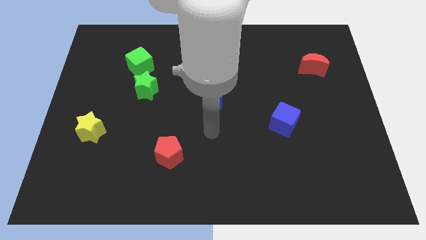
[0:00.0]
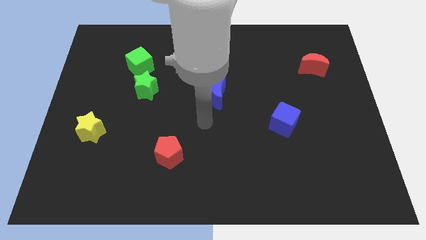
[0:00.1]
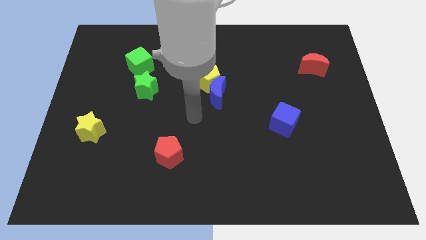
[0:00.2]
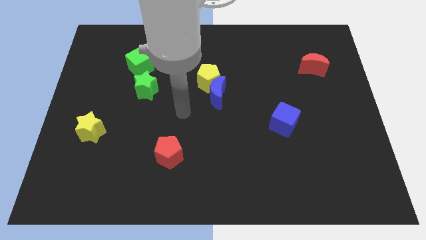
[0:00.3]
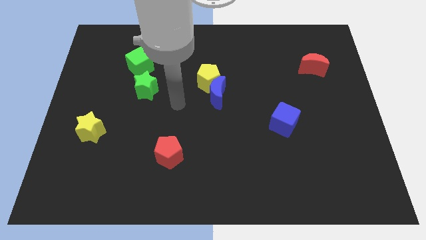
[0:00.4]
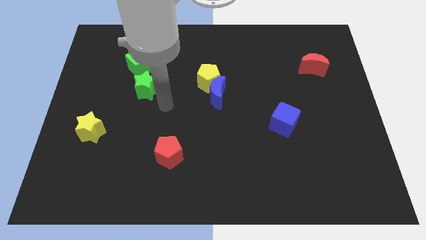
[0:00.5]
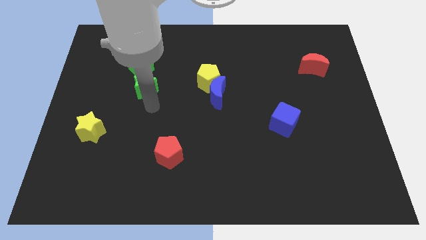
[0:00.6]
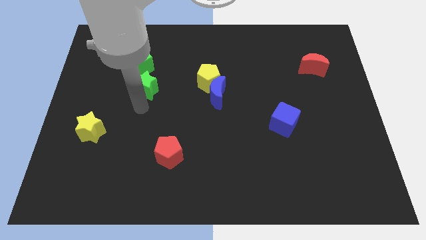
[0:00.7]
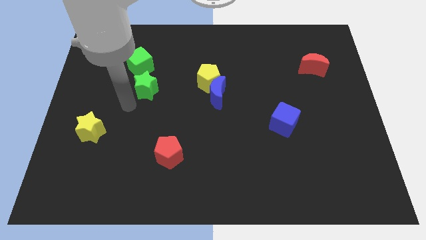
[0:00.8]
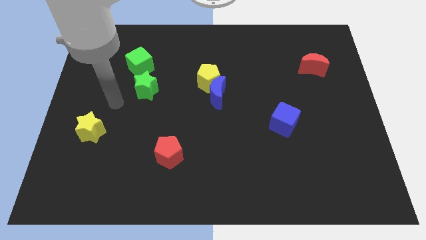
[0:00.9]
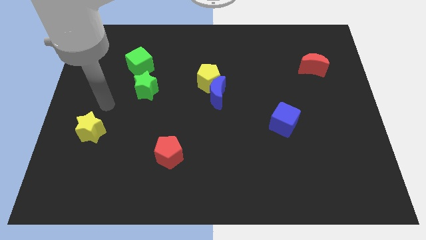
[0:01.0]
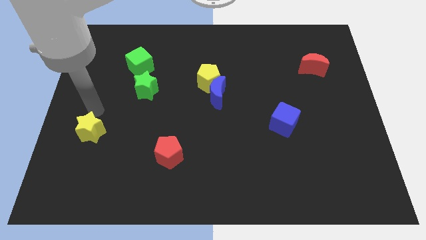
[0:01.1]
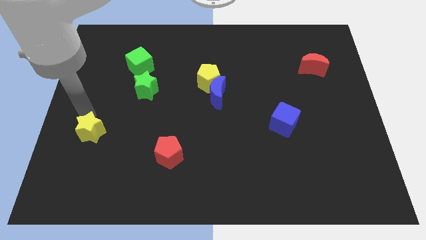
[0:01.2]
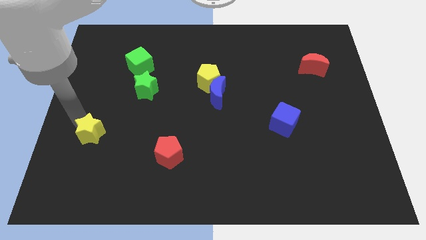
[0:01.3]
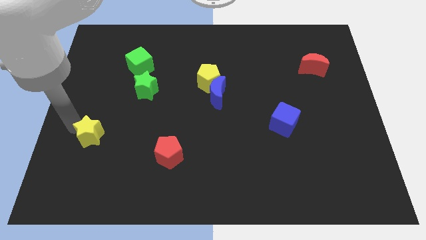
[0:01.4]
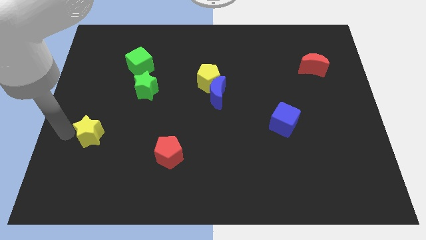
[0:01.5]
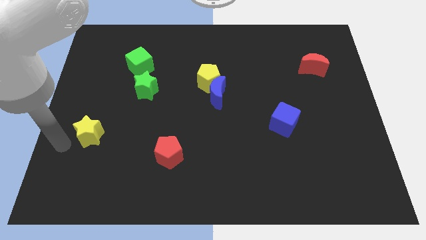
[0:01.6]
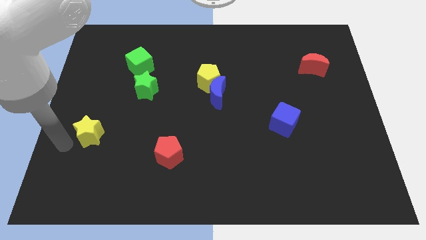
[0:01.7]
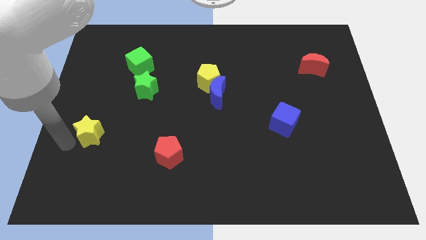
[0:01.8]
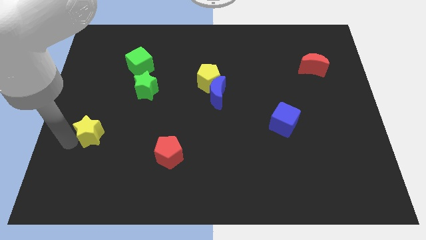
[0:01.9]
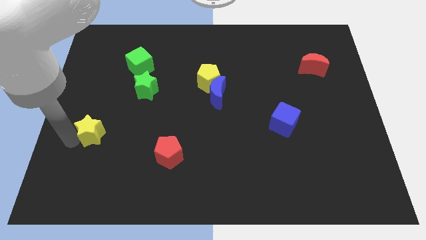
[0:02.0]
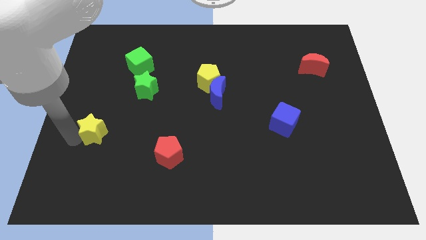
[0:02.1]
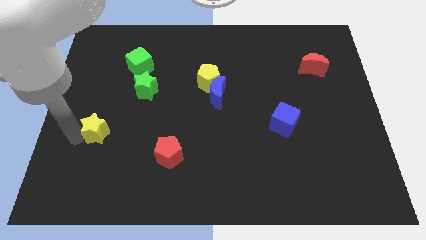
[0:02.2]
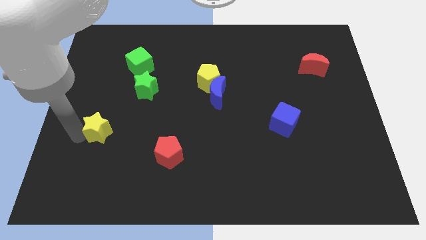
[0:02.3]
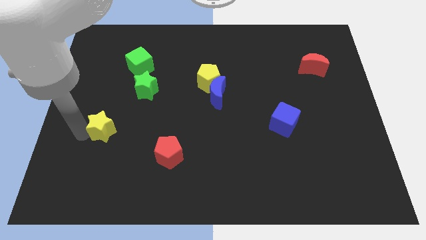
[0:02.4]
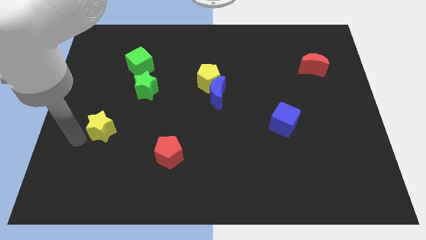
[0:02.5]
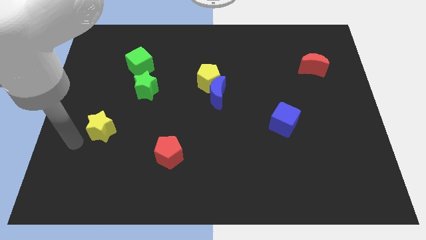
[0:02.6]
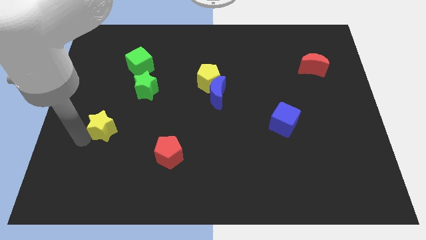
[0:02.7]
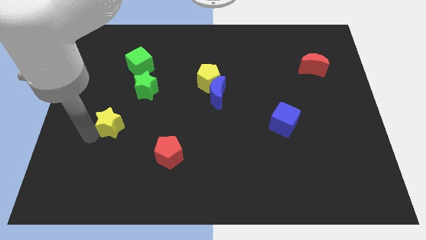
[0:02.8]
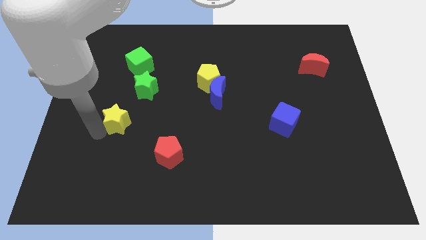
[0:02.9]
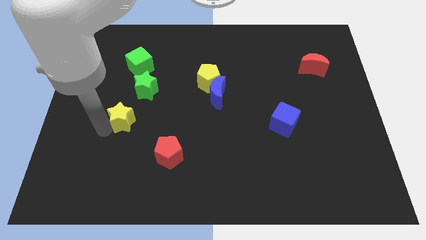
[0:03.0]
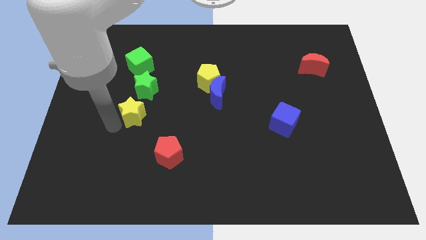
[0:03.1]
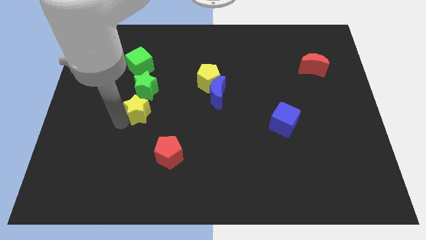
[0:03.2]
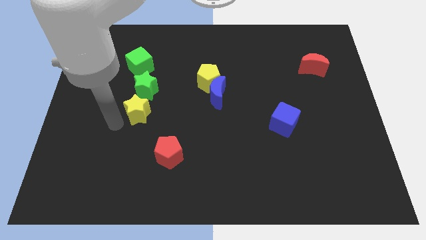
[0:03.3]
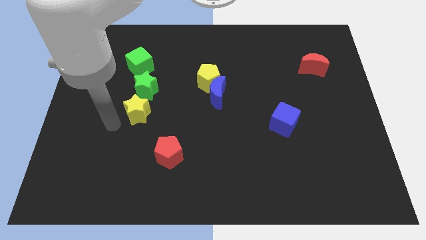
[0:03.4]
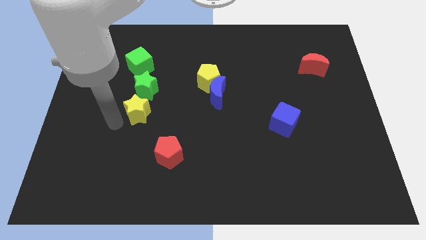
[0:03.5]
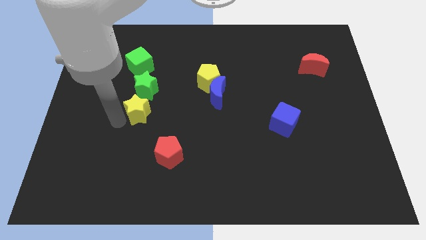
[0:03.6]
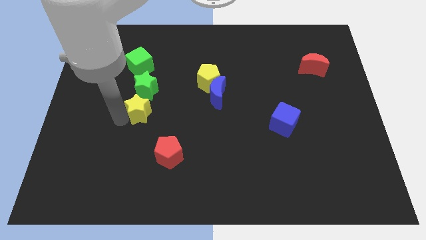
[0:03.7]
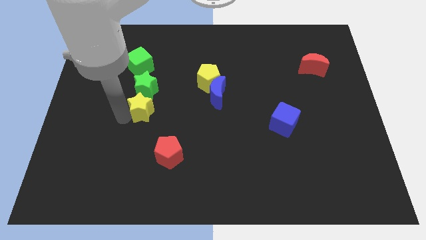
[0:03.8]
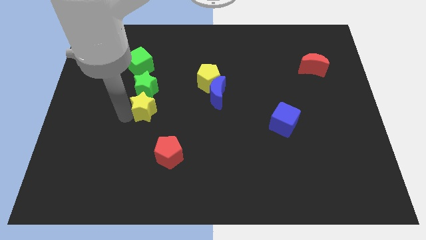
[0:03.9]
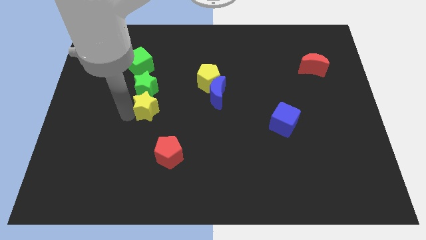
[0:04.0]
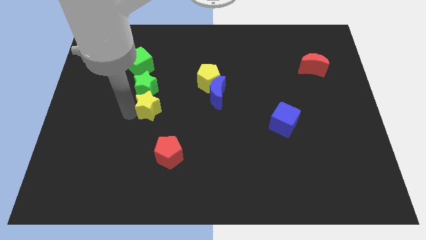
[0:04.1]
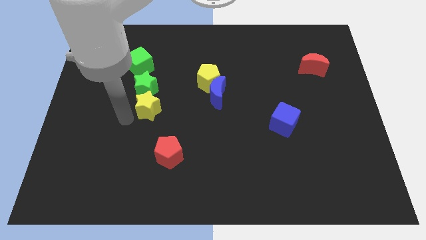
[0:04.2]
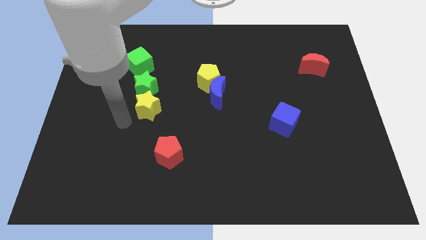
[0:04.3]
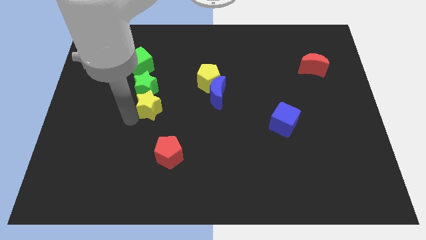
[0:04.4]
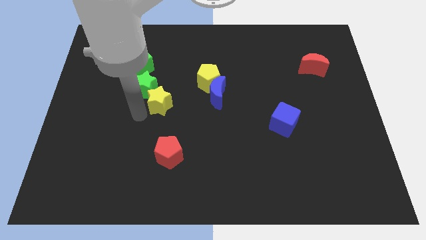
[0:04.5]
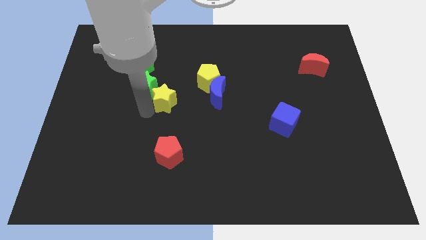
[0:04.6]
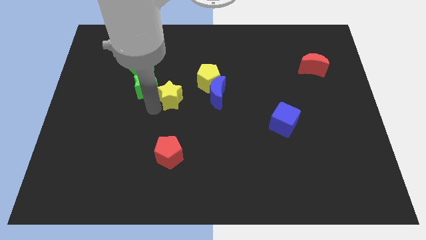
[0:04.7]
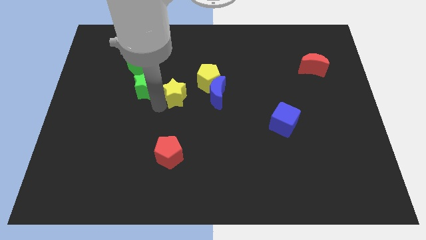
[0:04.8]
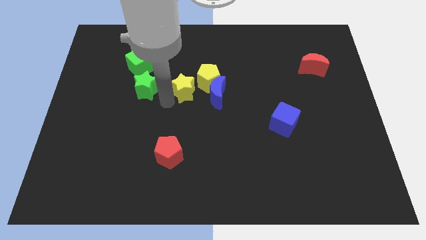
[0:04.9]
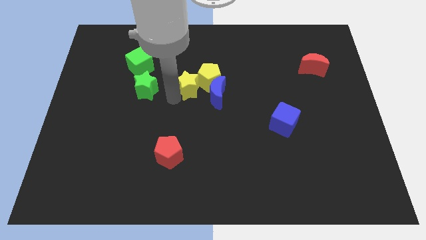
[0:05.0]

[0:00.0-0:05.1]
put the yellow star close to the yellow pentagon

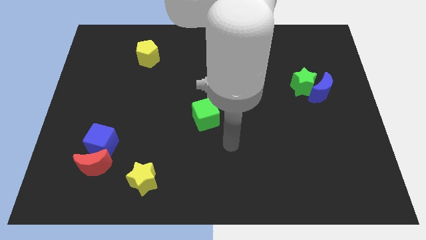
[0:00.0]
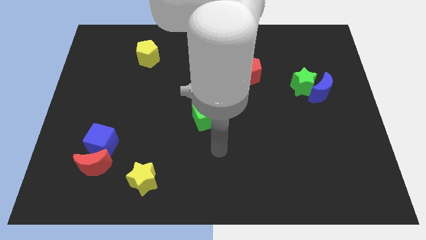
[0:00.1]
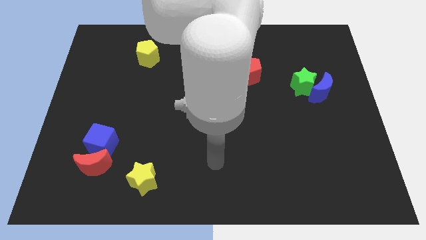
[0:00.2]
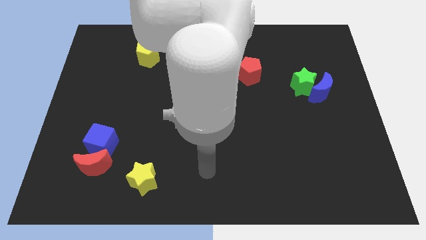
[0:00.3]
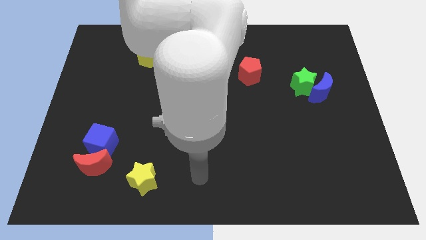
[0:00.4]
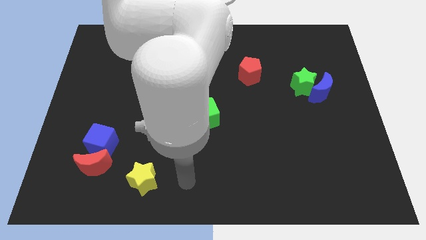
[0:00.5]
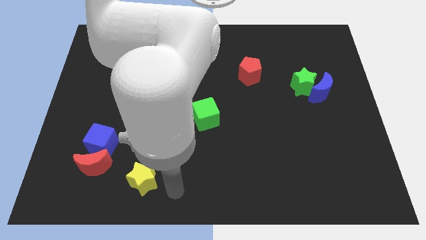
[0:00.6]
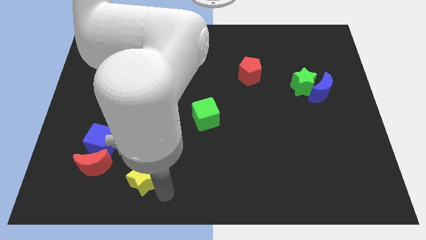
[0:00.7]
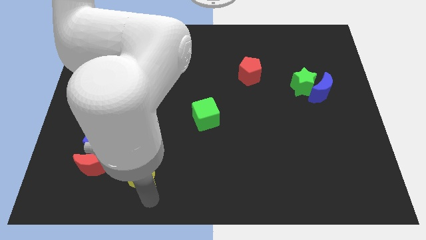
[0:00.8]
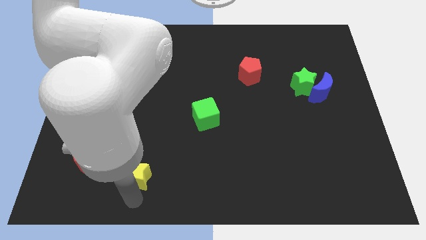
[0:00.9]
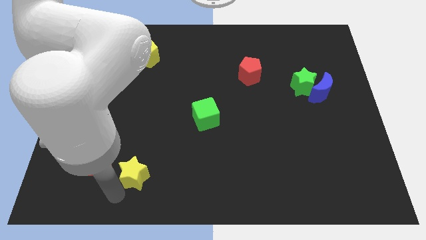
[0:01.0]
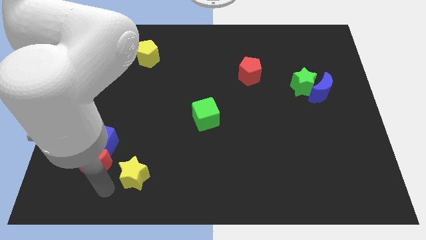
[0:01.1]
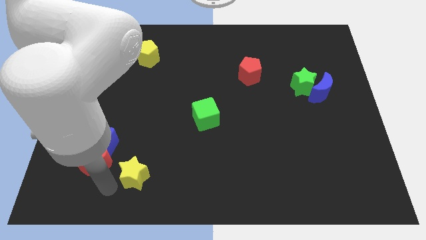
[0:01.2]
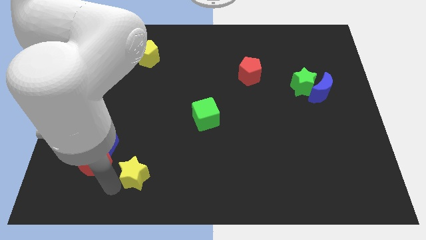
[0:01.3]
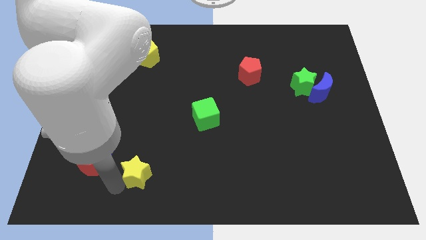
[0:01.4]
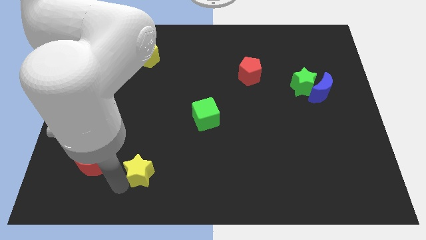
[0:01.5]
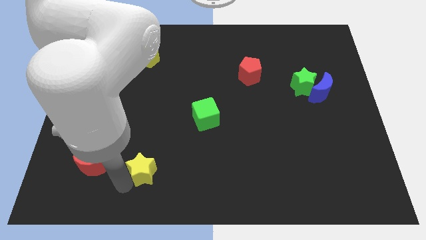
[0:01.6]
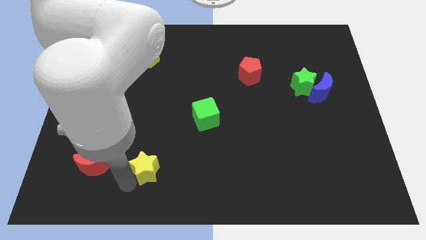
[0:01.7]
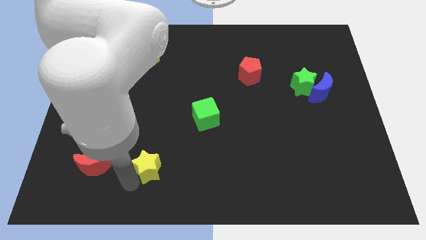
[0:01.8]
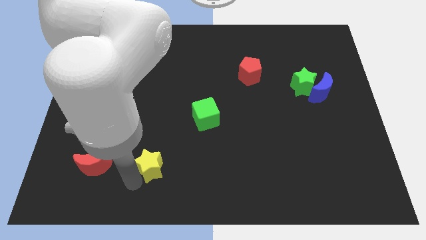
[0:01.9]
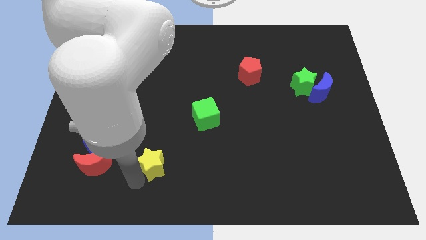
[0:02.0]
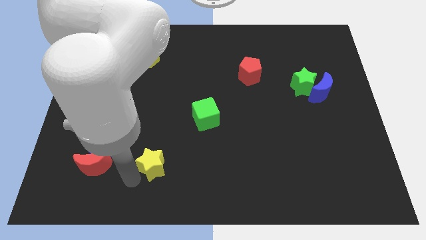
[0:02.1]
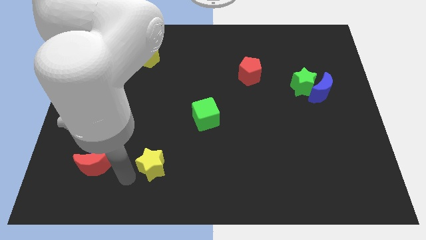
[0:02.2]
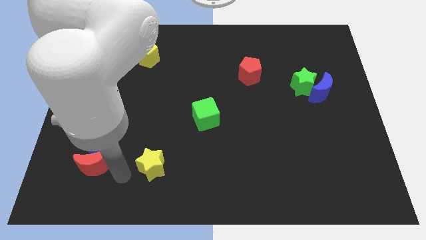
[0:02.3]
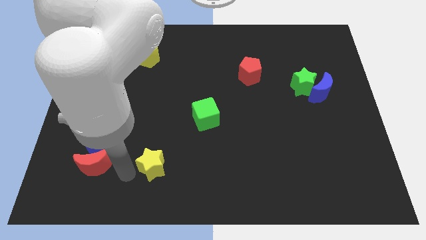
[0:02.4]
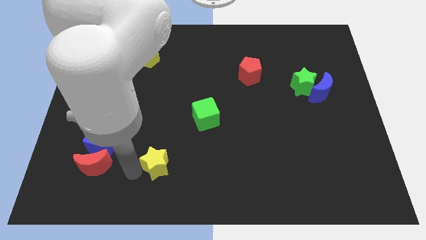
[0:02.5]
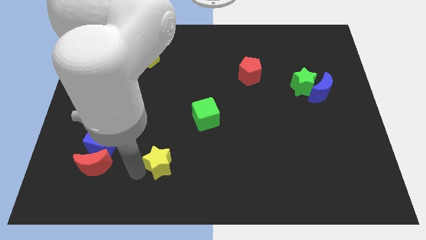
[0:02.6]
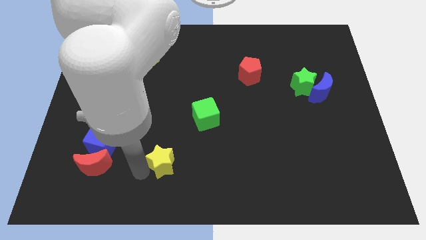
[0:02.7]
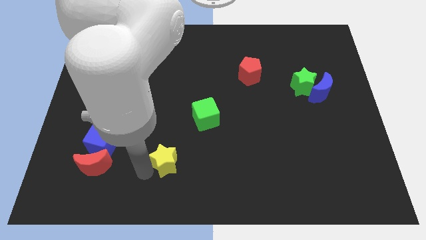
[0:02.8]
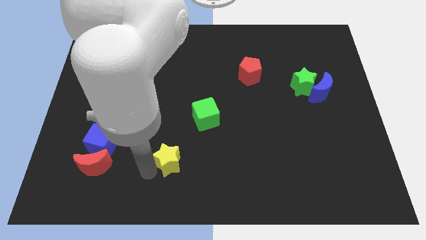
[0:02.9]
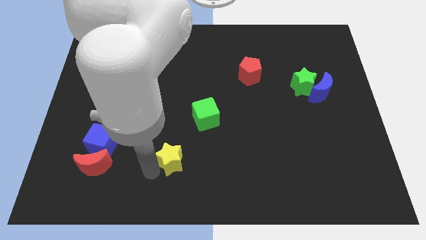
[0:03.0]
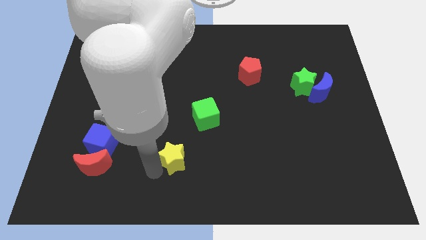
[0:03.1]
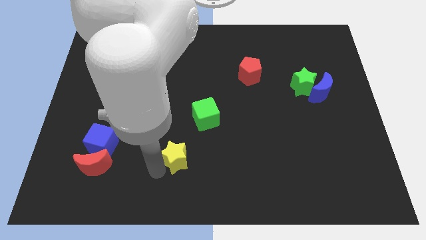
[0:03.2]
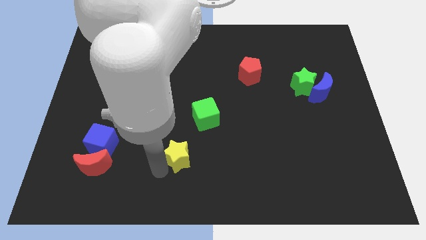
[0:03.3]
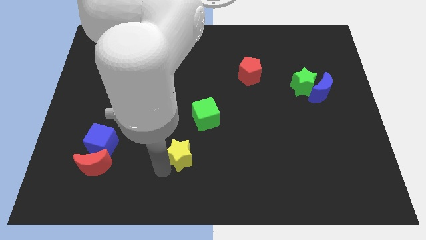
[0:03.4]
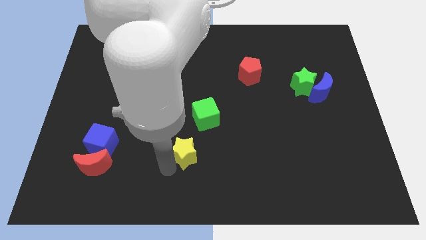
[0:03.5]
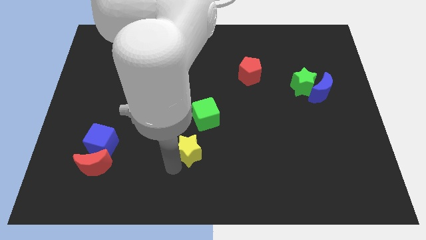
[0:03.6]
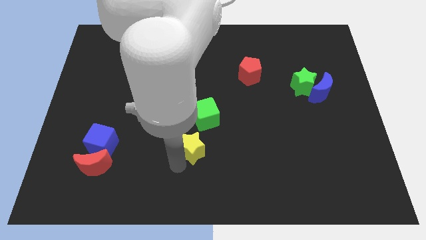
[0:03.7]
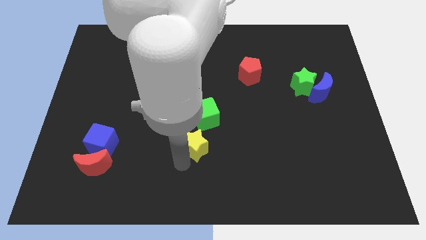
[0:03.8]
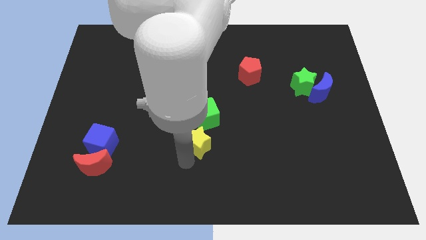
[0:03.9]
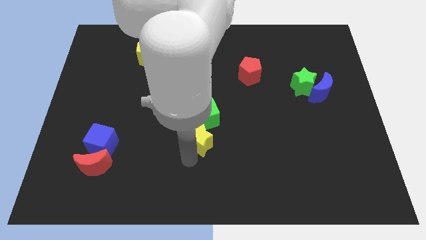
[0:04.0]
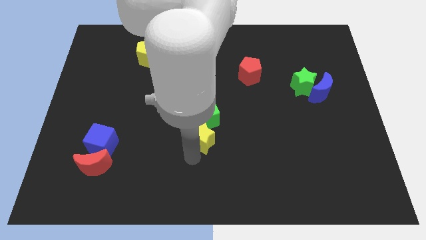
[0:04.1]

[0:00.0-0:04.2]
put the yellow star close to the green cube
